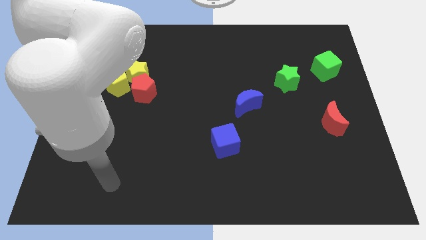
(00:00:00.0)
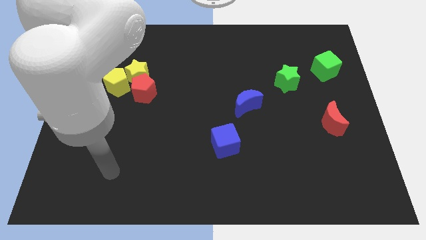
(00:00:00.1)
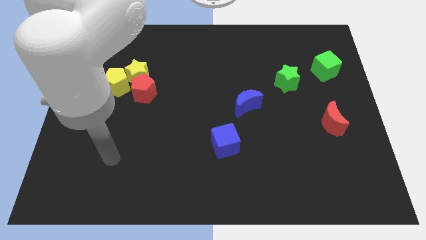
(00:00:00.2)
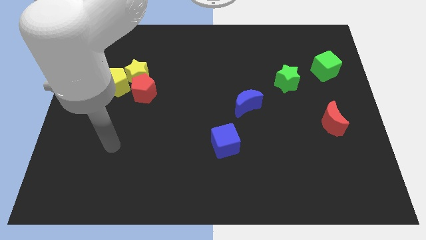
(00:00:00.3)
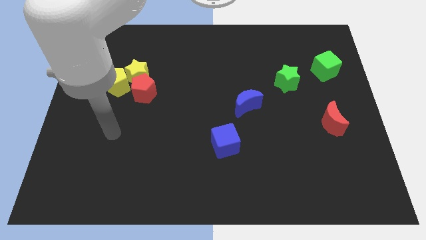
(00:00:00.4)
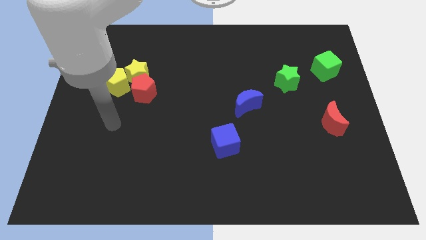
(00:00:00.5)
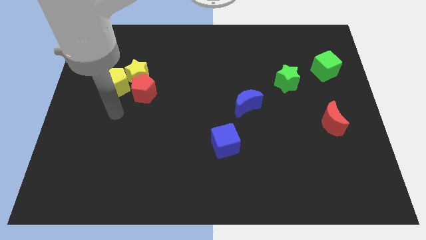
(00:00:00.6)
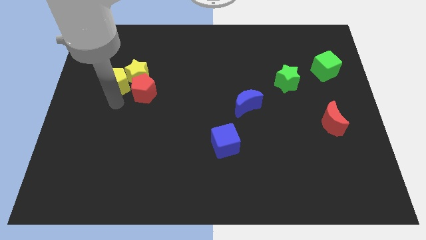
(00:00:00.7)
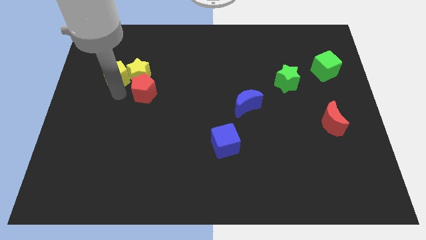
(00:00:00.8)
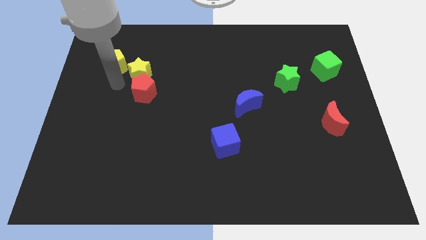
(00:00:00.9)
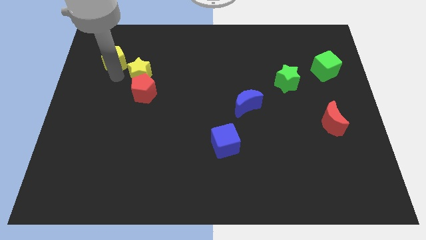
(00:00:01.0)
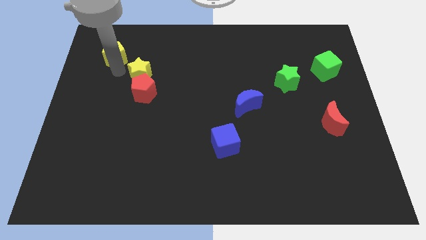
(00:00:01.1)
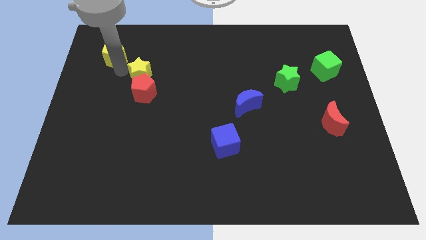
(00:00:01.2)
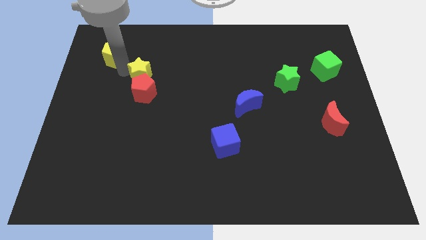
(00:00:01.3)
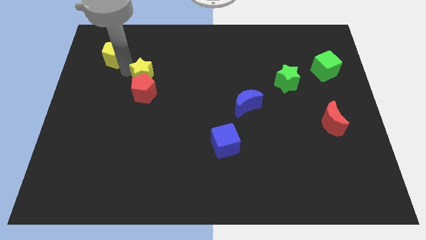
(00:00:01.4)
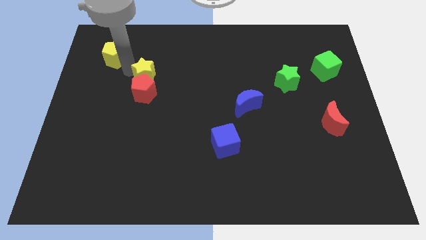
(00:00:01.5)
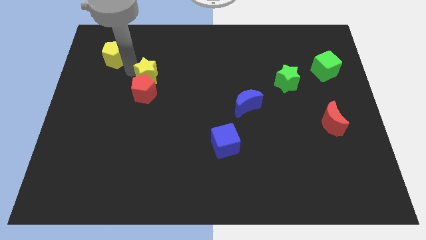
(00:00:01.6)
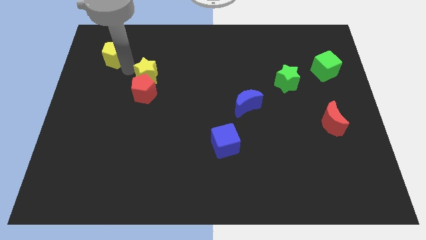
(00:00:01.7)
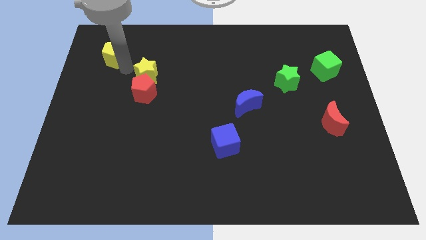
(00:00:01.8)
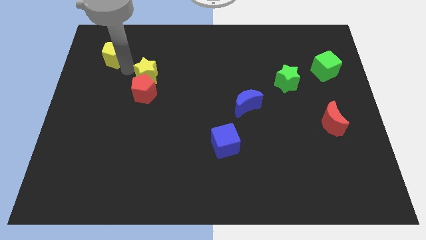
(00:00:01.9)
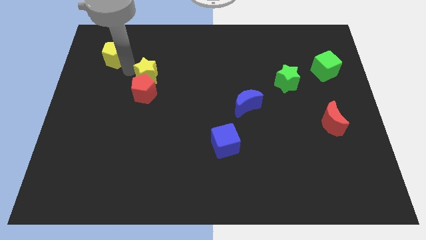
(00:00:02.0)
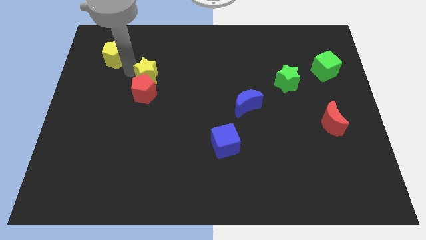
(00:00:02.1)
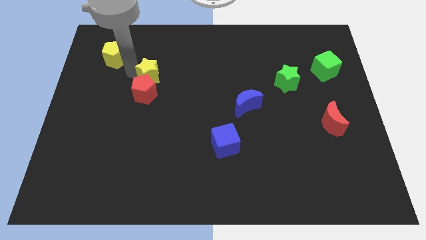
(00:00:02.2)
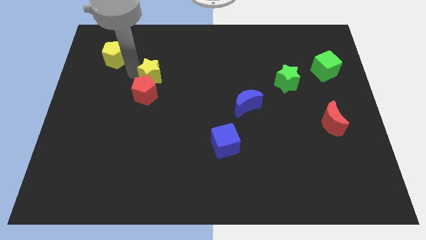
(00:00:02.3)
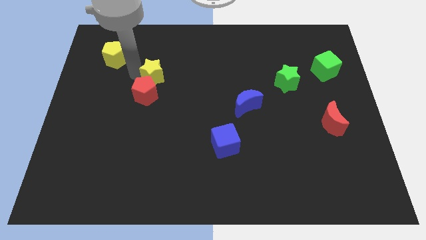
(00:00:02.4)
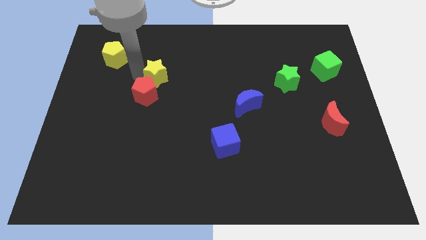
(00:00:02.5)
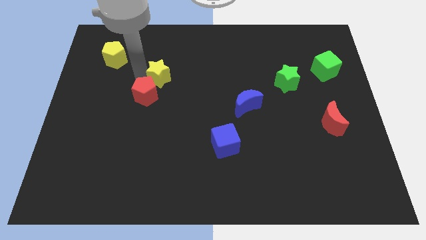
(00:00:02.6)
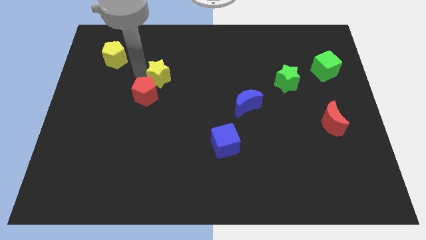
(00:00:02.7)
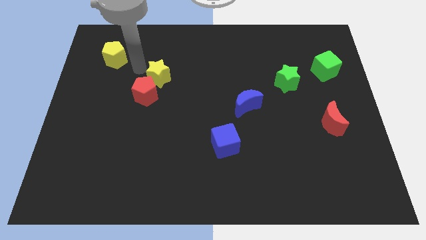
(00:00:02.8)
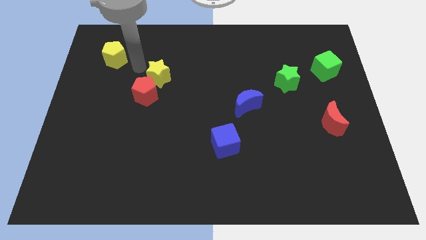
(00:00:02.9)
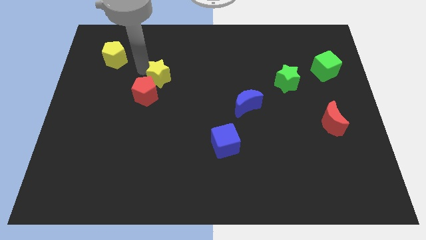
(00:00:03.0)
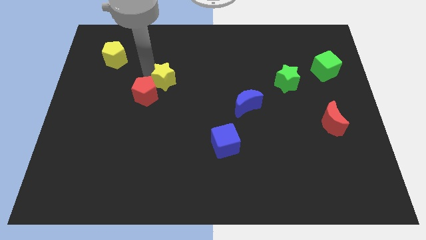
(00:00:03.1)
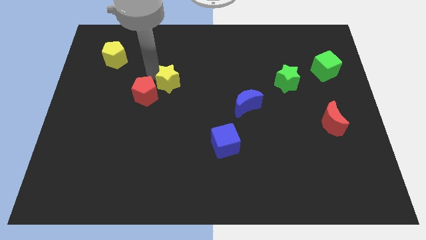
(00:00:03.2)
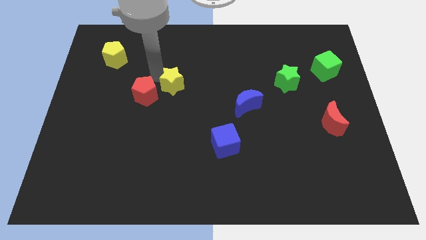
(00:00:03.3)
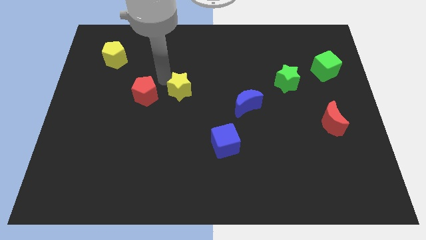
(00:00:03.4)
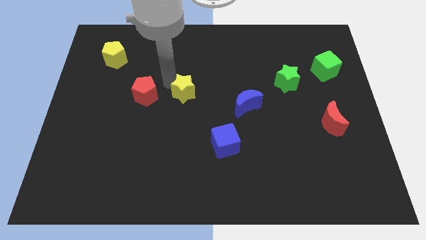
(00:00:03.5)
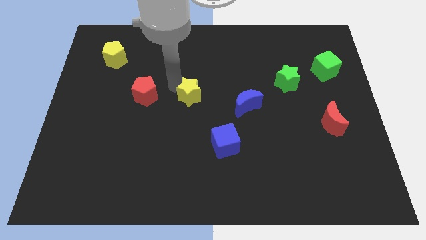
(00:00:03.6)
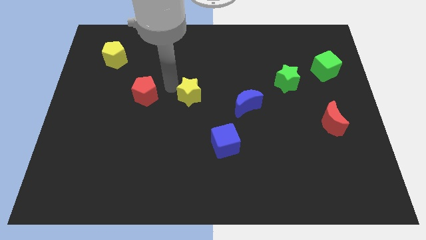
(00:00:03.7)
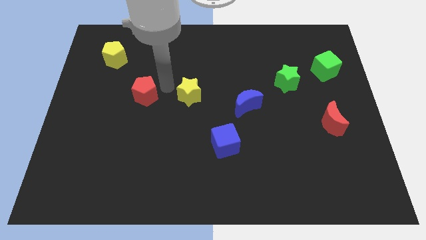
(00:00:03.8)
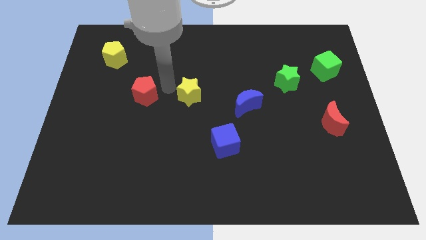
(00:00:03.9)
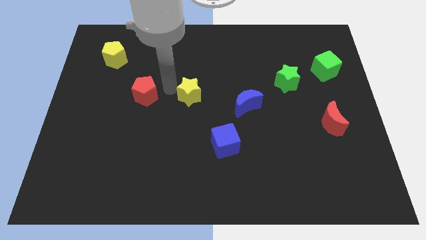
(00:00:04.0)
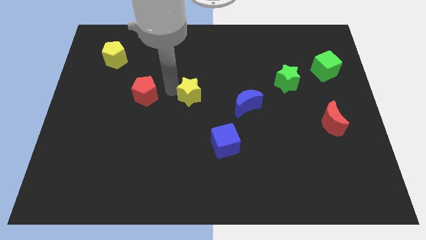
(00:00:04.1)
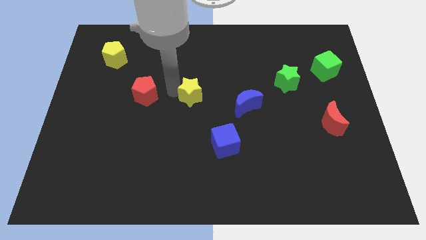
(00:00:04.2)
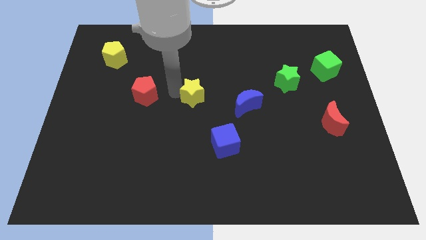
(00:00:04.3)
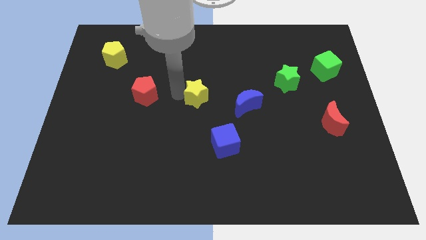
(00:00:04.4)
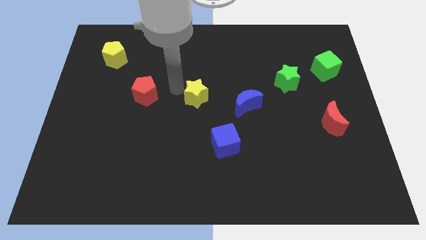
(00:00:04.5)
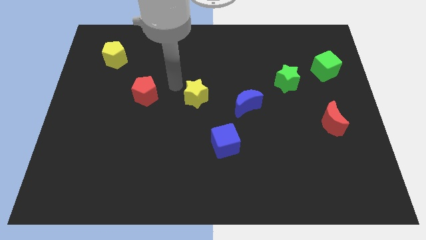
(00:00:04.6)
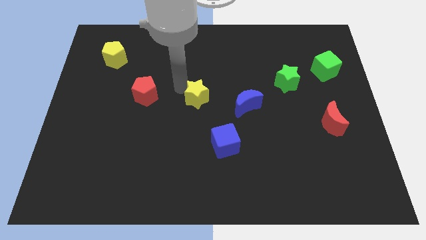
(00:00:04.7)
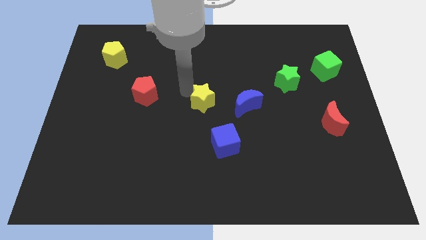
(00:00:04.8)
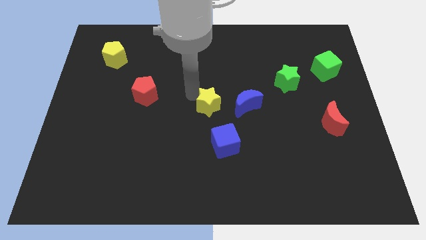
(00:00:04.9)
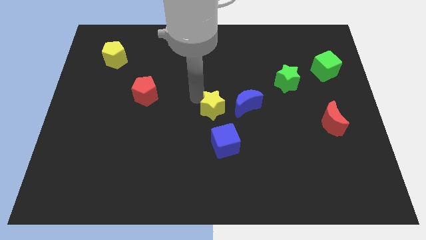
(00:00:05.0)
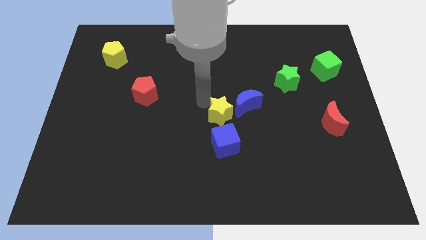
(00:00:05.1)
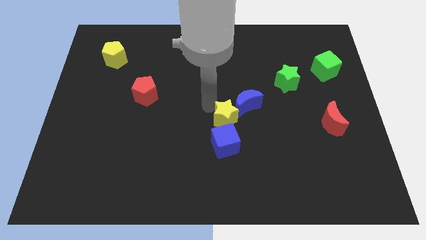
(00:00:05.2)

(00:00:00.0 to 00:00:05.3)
slide the yellow star diagonally up and to the right of the blue cube

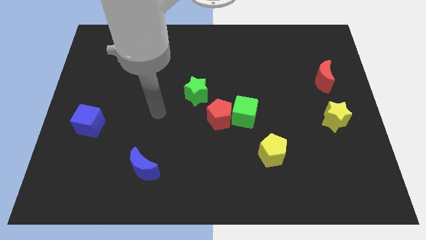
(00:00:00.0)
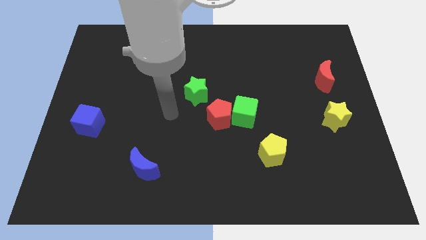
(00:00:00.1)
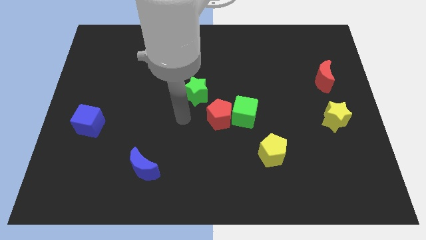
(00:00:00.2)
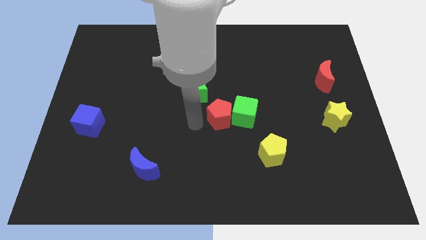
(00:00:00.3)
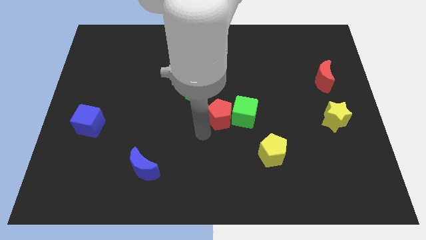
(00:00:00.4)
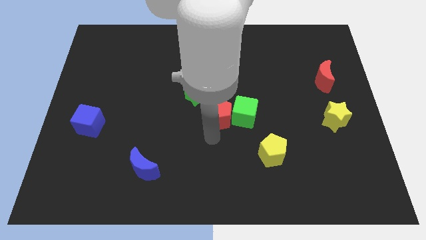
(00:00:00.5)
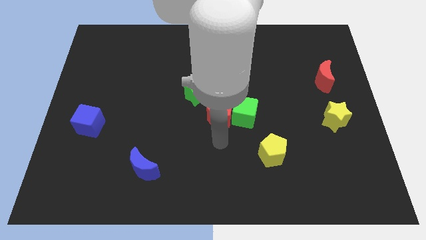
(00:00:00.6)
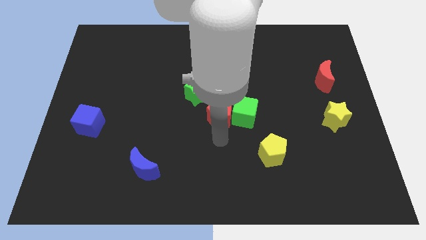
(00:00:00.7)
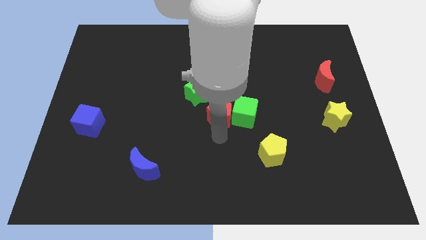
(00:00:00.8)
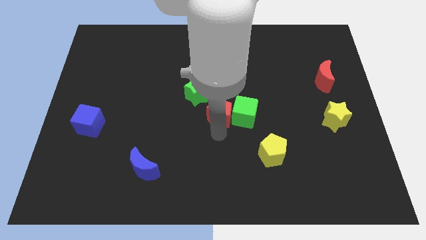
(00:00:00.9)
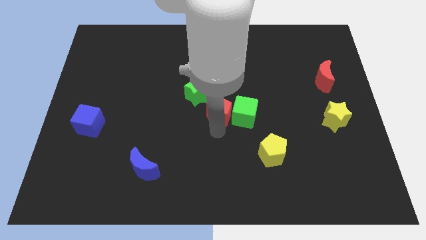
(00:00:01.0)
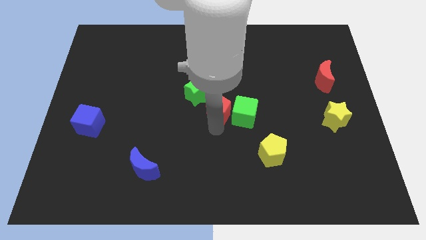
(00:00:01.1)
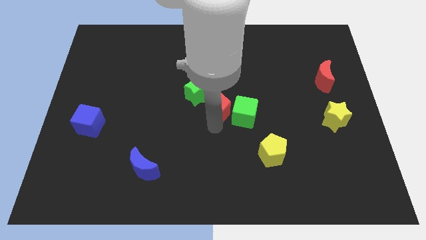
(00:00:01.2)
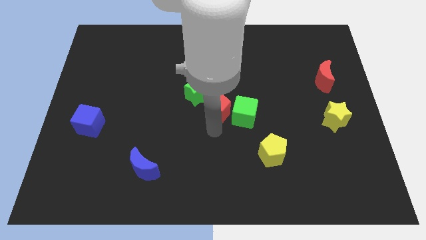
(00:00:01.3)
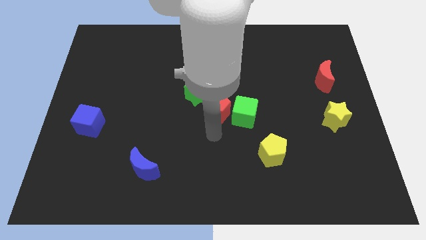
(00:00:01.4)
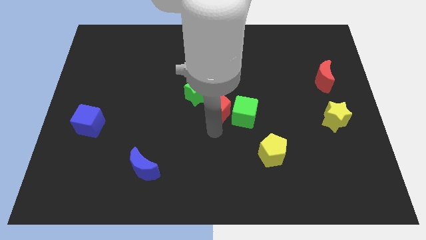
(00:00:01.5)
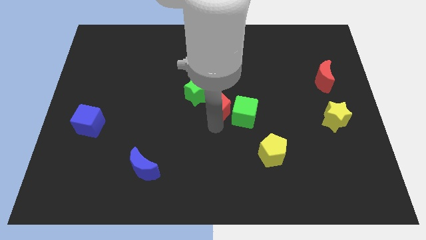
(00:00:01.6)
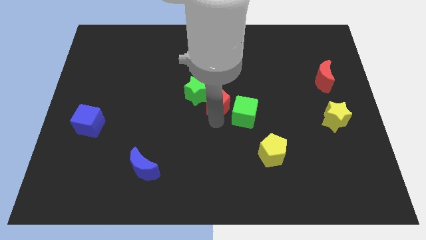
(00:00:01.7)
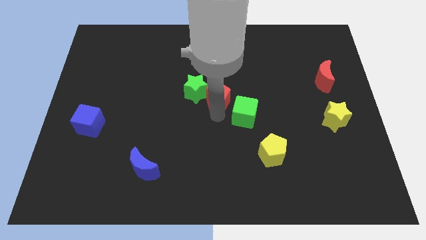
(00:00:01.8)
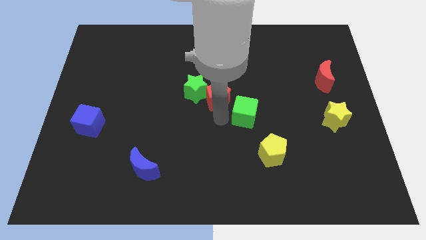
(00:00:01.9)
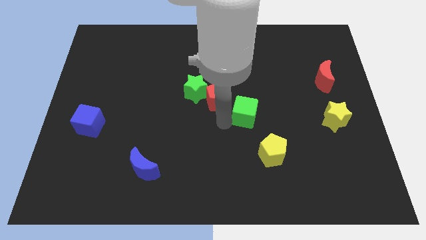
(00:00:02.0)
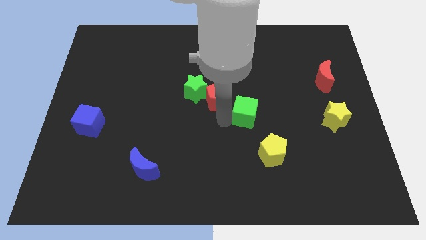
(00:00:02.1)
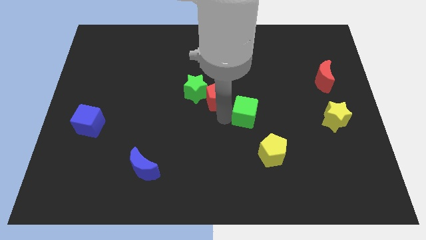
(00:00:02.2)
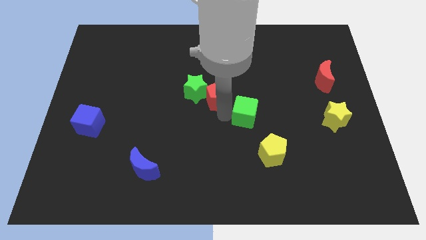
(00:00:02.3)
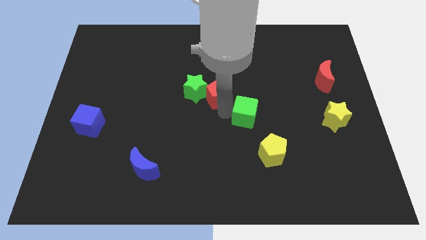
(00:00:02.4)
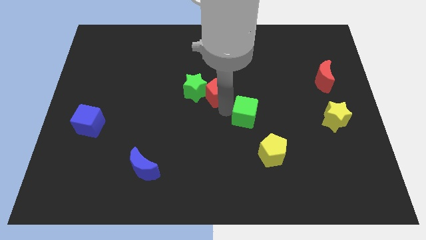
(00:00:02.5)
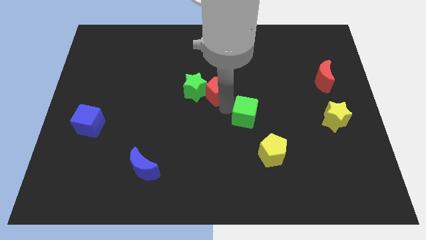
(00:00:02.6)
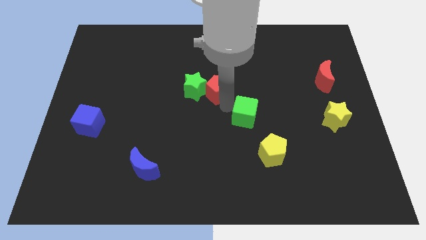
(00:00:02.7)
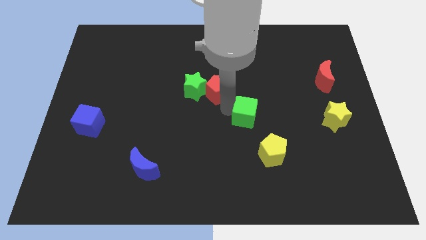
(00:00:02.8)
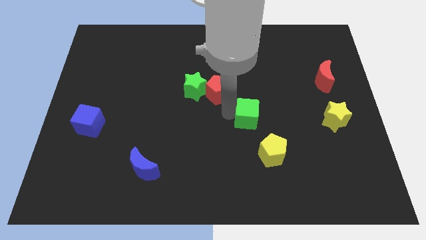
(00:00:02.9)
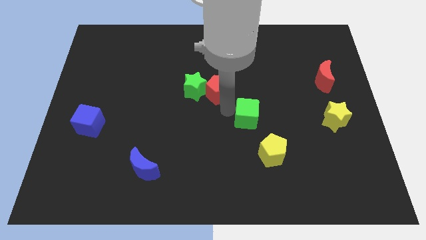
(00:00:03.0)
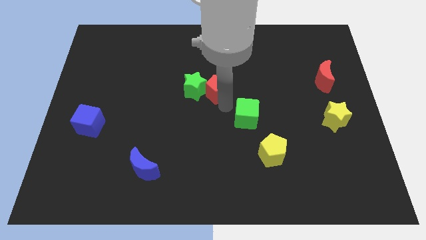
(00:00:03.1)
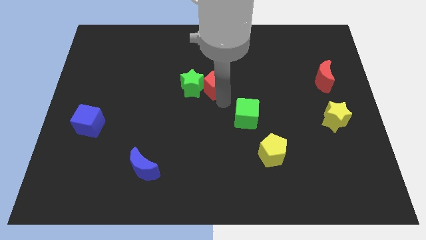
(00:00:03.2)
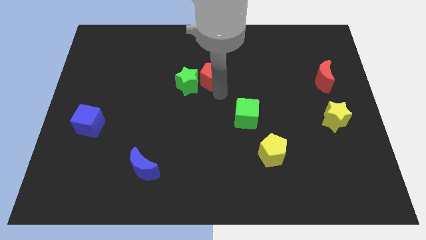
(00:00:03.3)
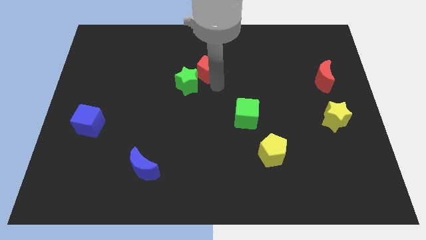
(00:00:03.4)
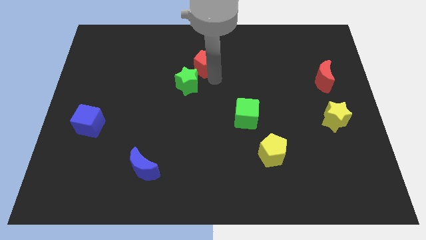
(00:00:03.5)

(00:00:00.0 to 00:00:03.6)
move the red pentagon above the green star
